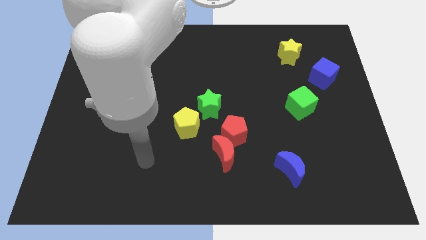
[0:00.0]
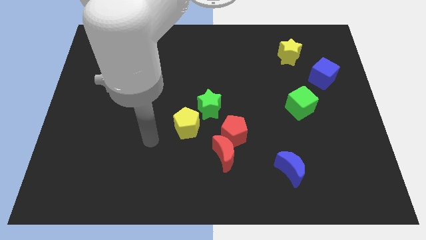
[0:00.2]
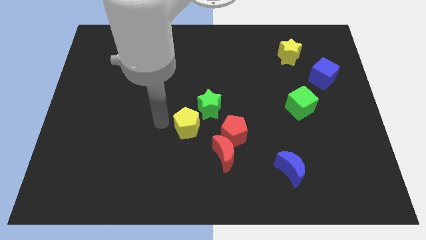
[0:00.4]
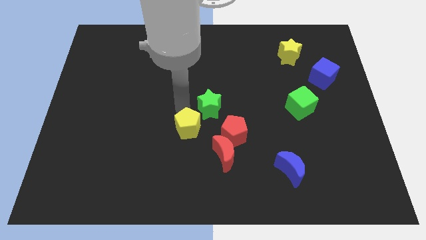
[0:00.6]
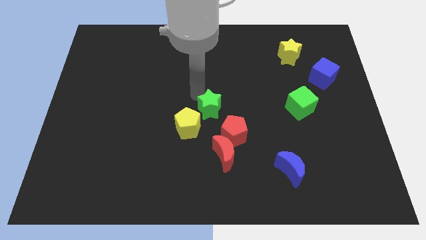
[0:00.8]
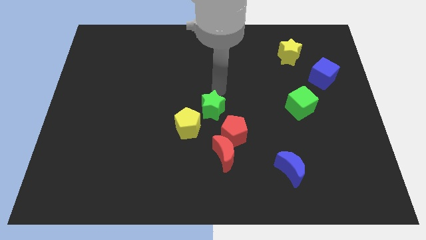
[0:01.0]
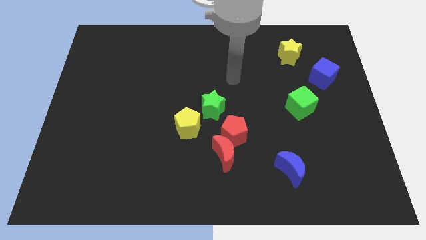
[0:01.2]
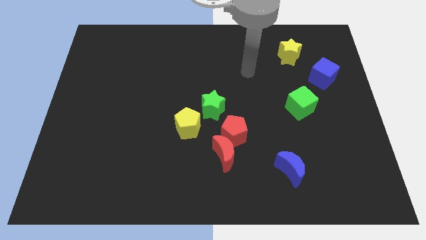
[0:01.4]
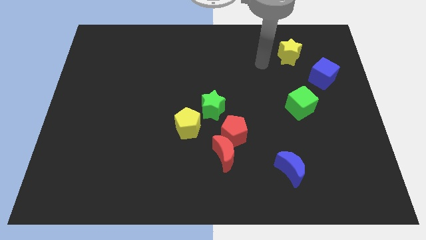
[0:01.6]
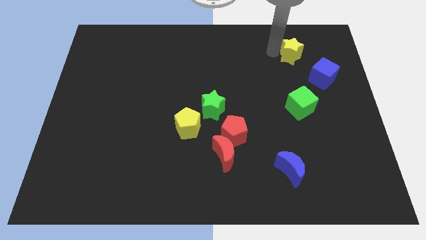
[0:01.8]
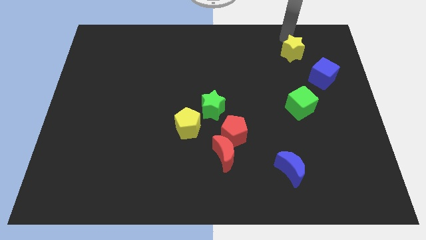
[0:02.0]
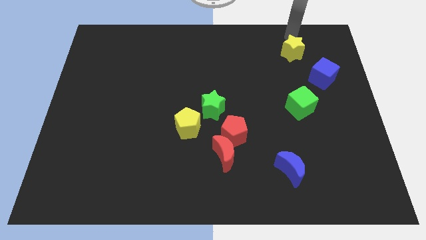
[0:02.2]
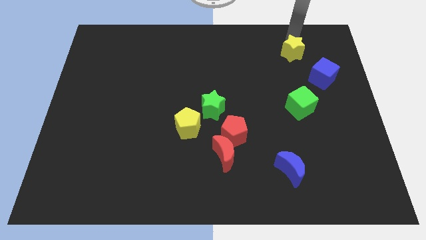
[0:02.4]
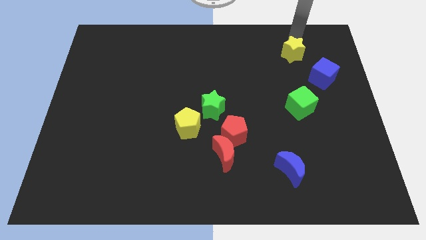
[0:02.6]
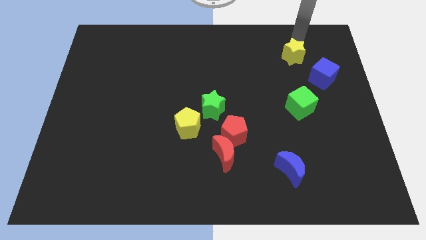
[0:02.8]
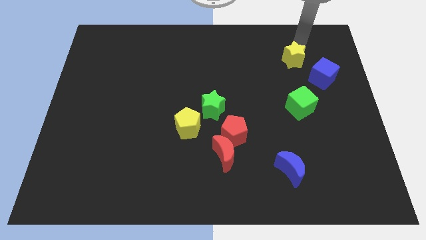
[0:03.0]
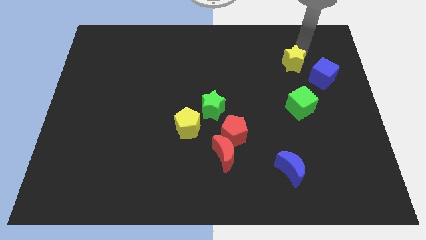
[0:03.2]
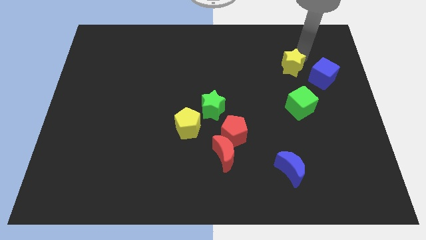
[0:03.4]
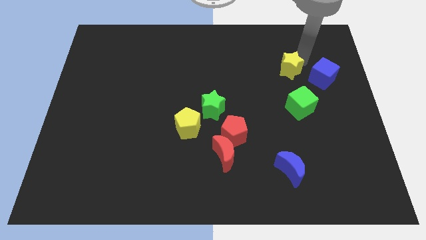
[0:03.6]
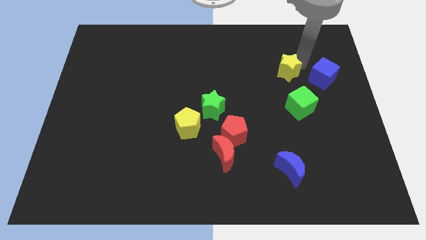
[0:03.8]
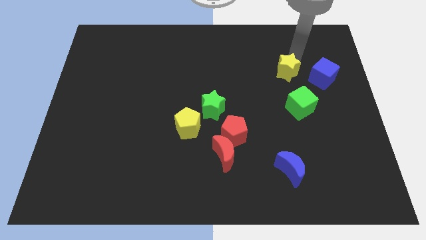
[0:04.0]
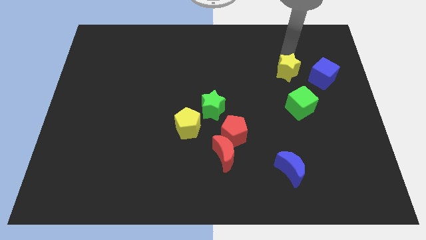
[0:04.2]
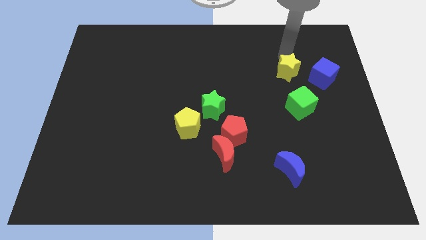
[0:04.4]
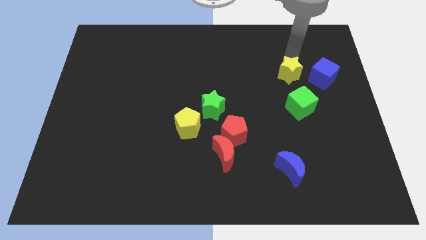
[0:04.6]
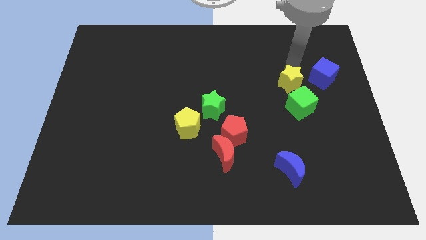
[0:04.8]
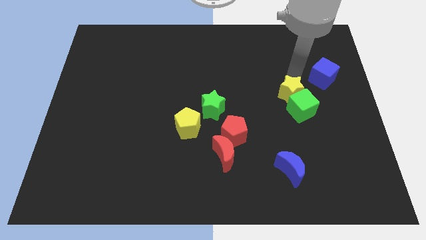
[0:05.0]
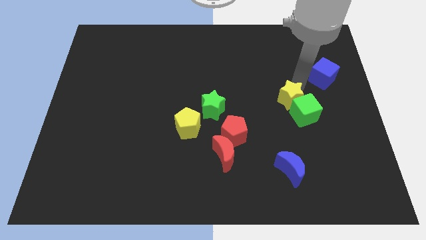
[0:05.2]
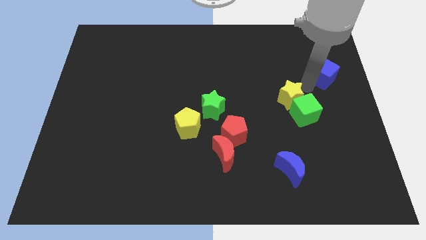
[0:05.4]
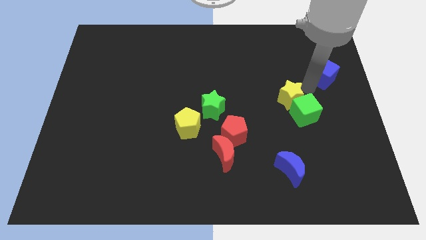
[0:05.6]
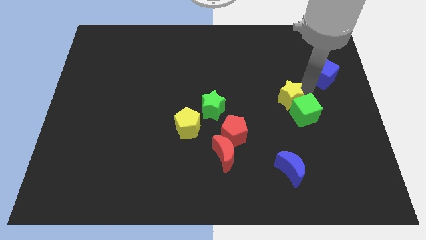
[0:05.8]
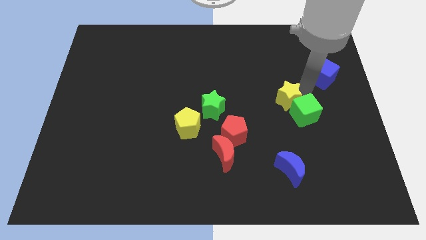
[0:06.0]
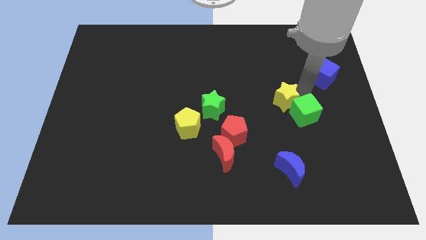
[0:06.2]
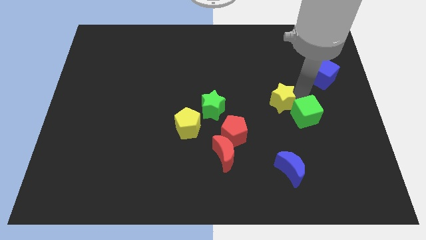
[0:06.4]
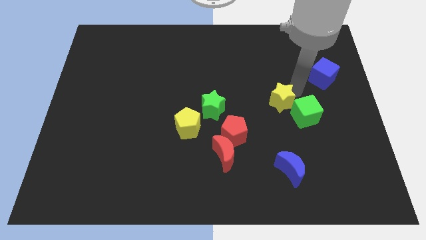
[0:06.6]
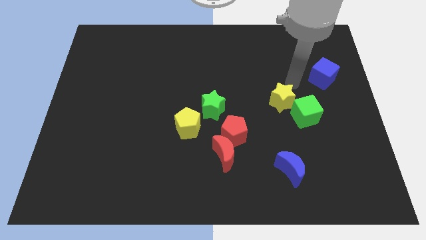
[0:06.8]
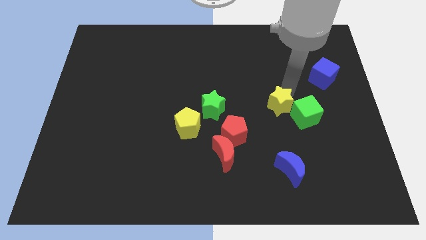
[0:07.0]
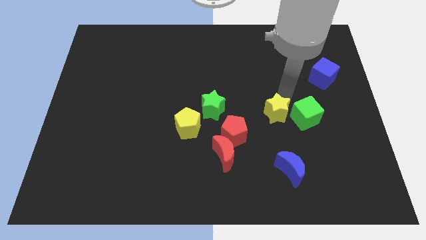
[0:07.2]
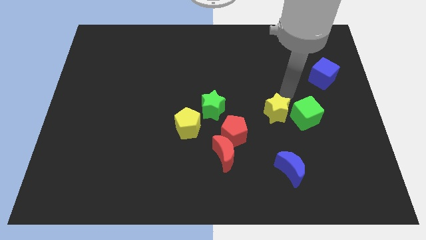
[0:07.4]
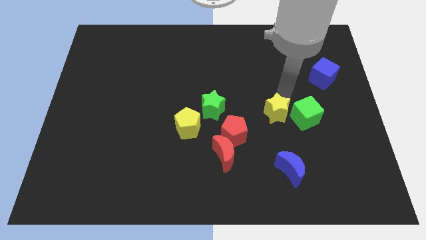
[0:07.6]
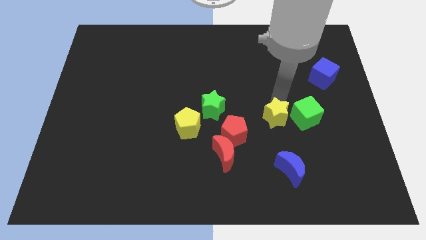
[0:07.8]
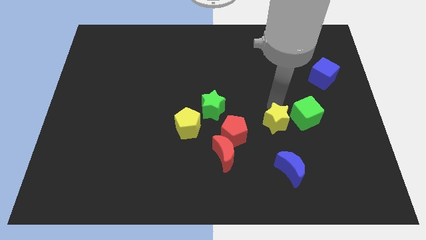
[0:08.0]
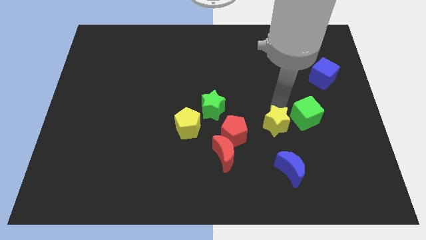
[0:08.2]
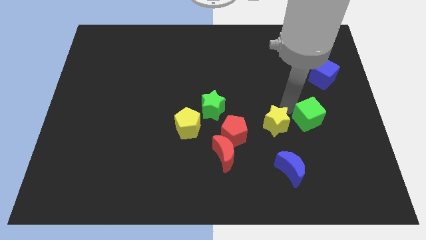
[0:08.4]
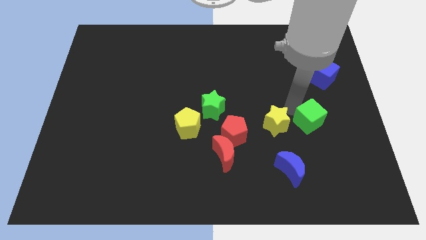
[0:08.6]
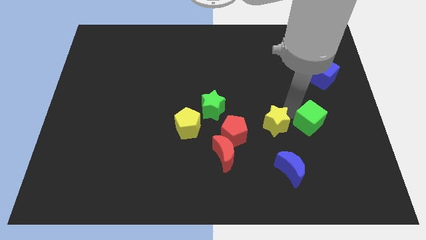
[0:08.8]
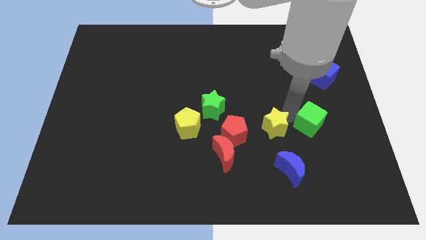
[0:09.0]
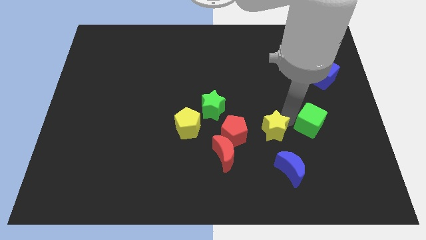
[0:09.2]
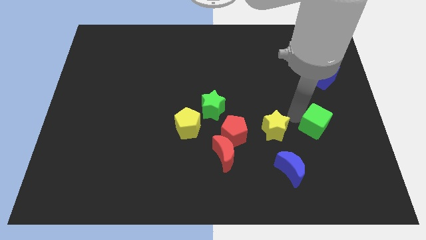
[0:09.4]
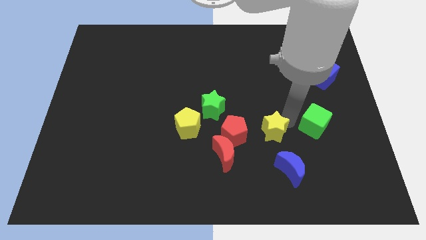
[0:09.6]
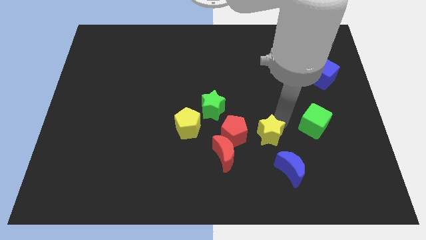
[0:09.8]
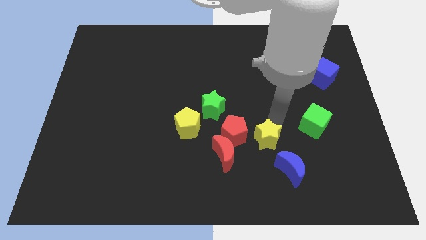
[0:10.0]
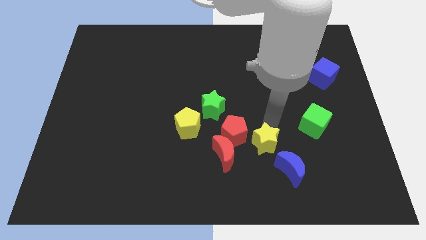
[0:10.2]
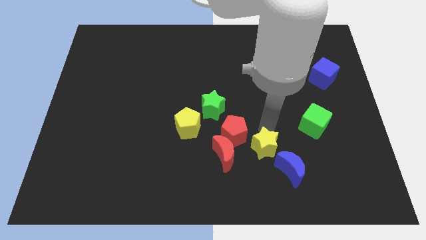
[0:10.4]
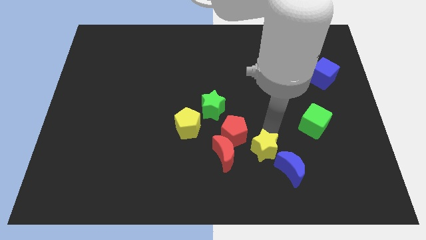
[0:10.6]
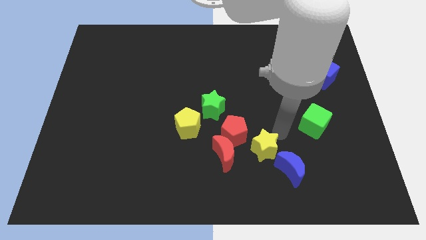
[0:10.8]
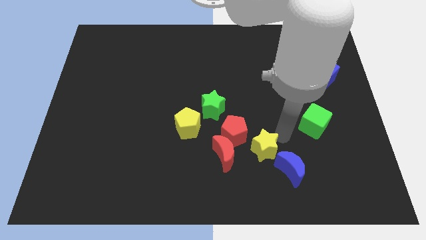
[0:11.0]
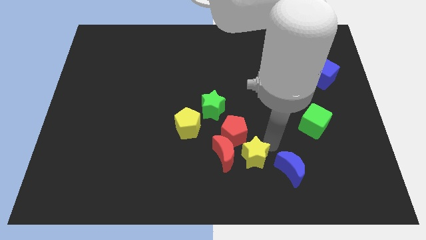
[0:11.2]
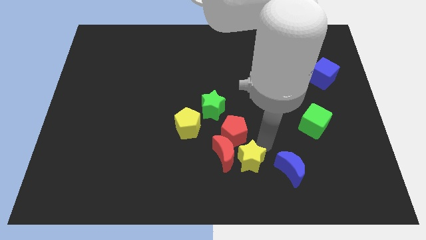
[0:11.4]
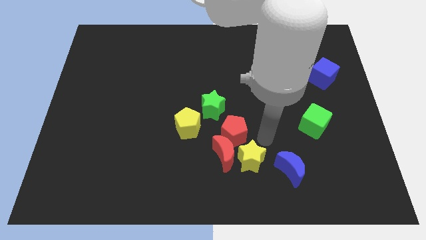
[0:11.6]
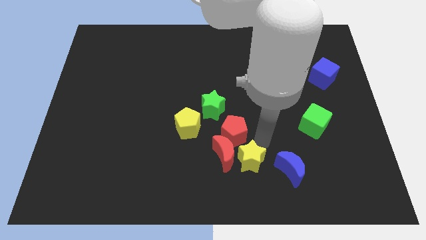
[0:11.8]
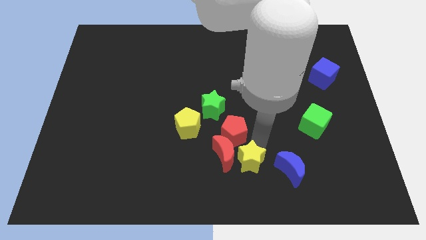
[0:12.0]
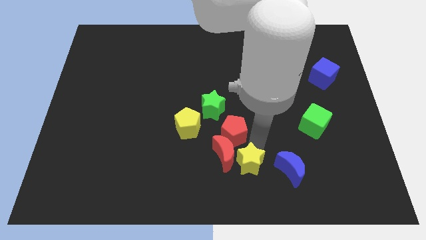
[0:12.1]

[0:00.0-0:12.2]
slide the yellow star to the bottom side
